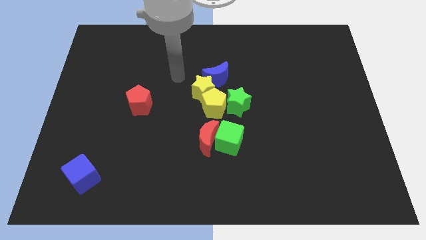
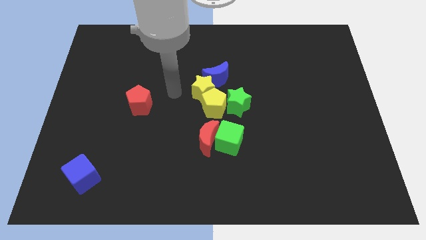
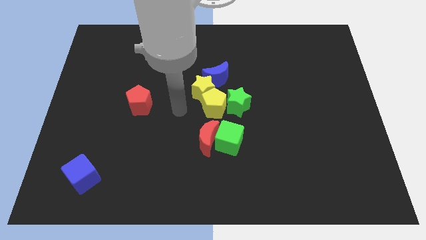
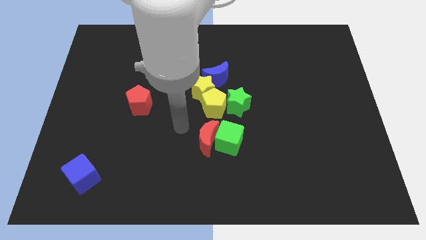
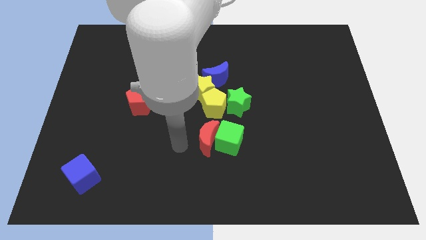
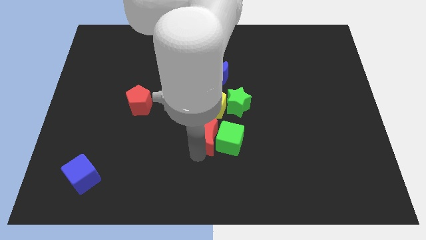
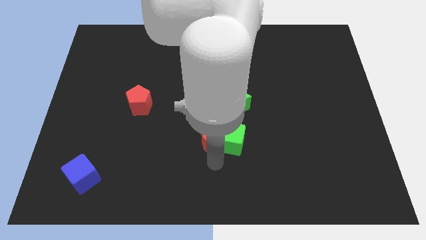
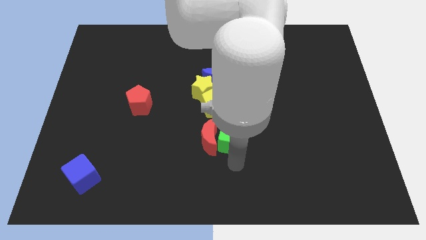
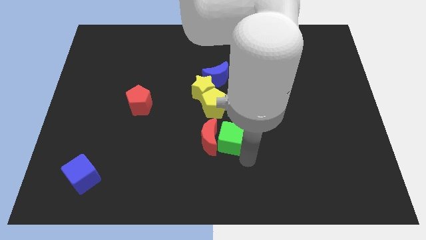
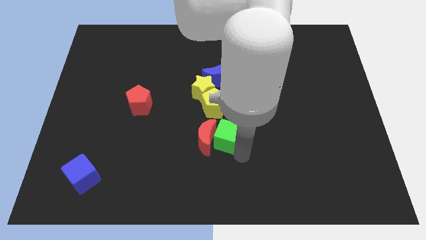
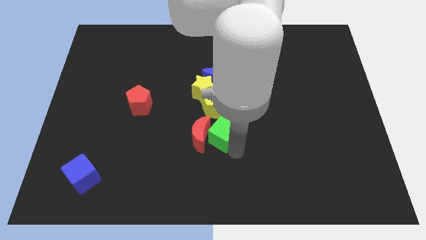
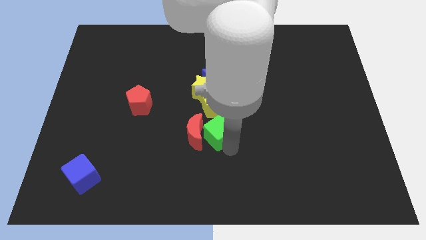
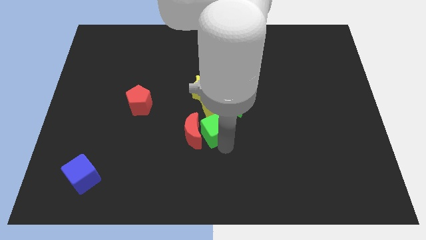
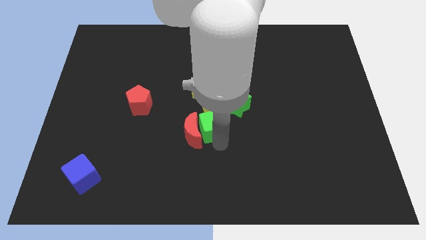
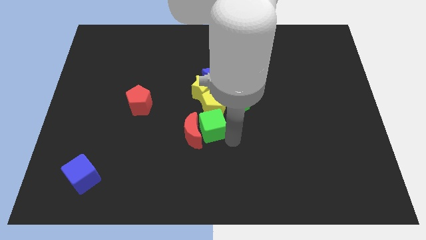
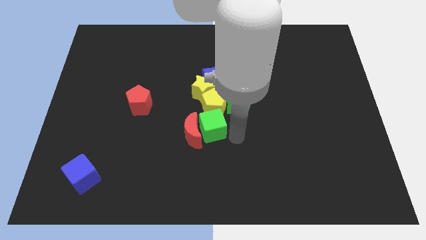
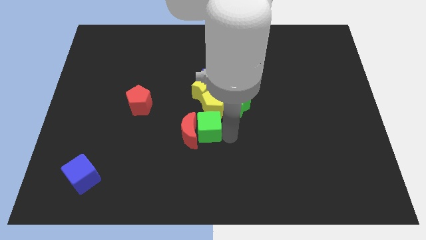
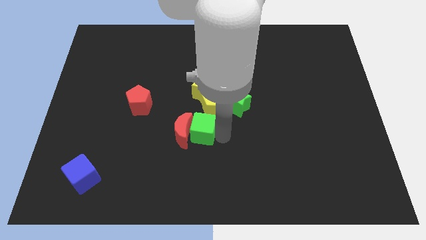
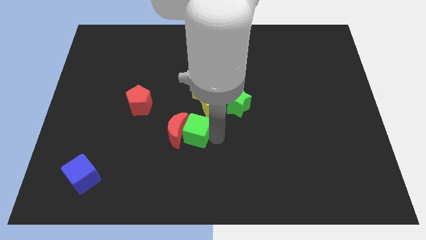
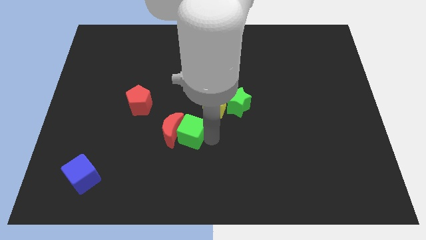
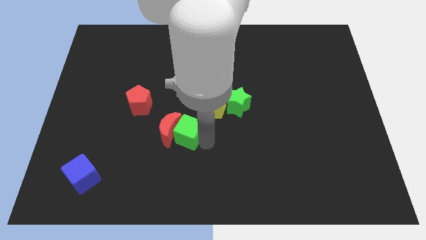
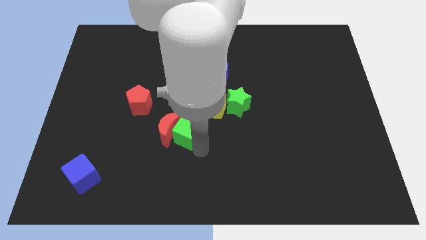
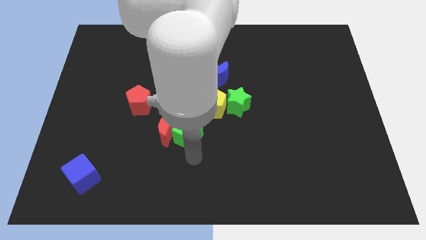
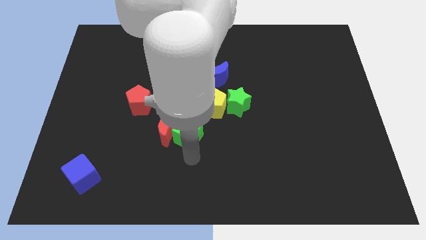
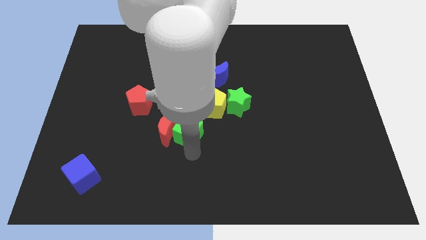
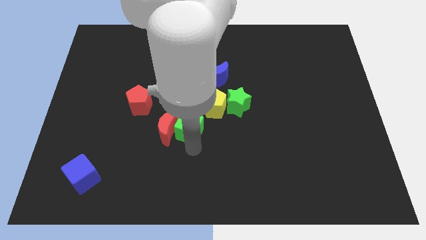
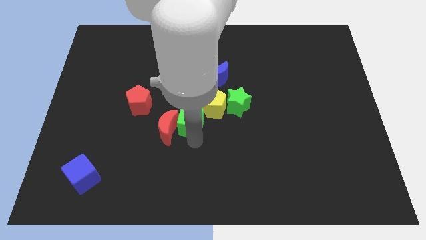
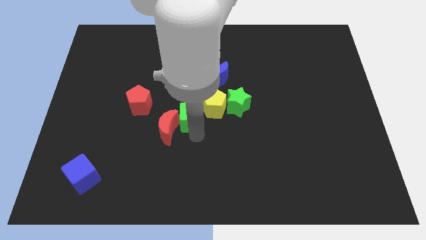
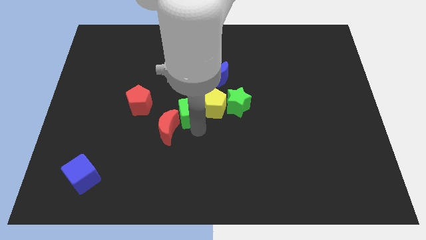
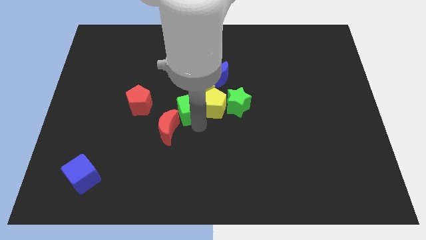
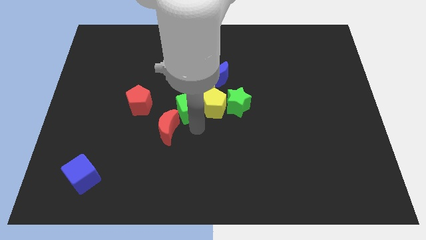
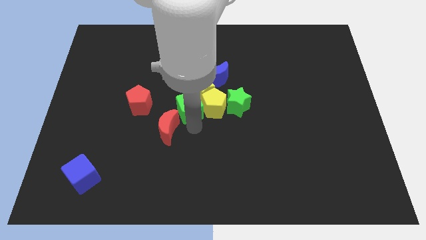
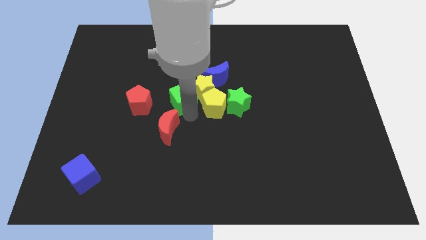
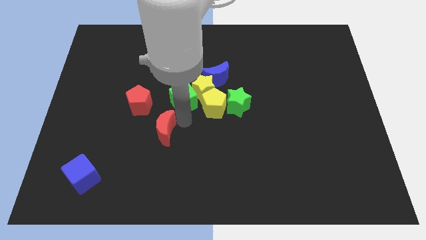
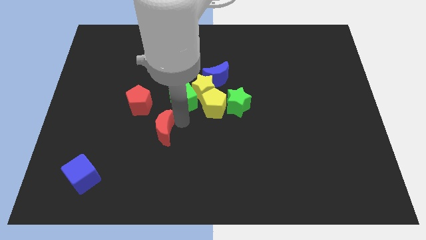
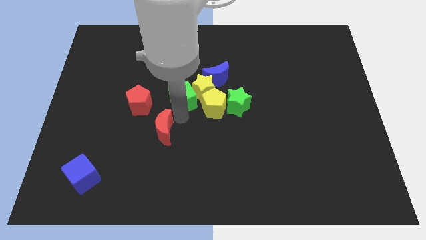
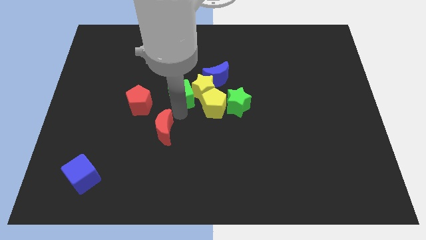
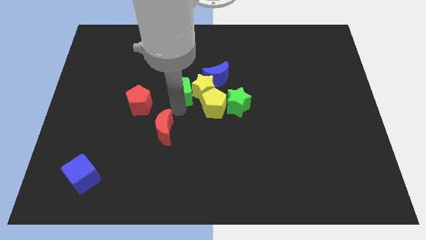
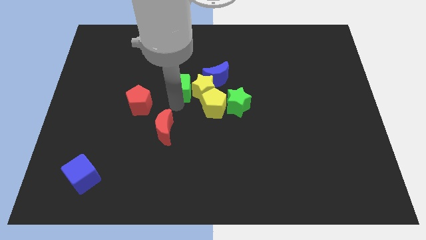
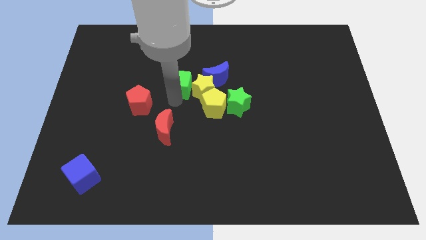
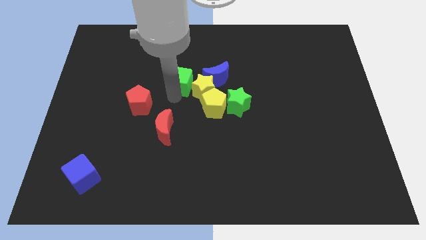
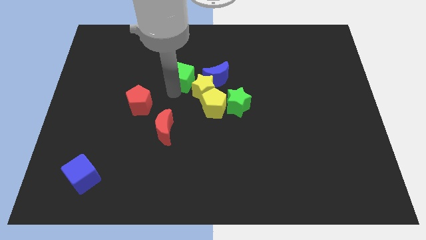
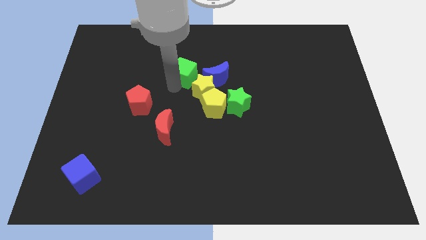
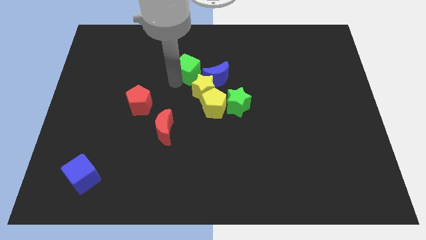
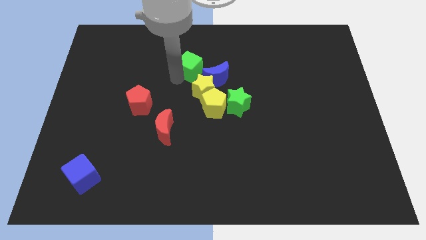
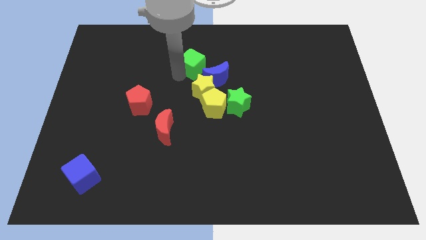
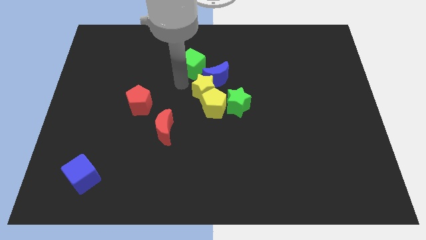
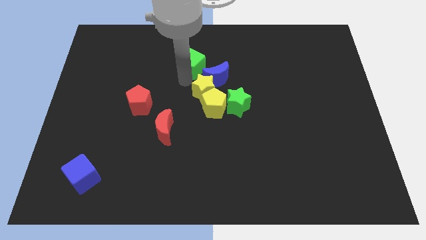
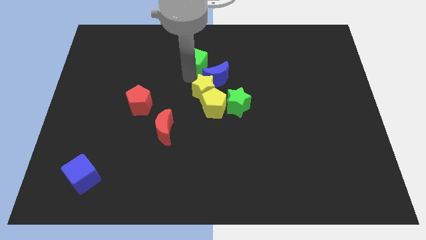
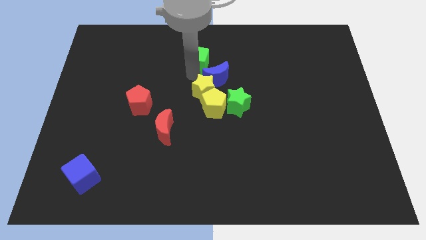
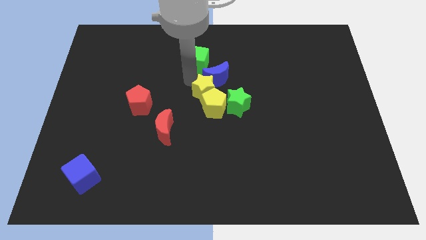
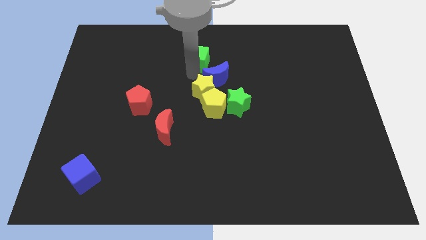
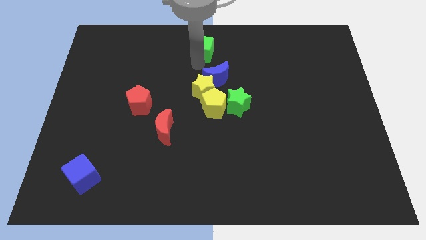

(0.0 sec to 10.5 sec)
push the green cube to the towards your base

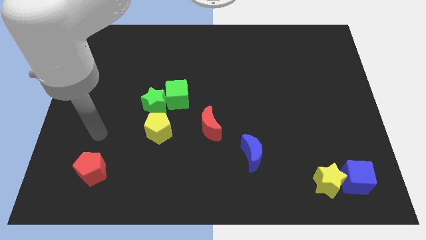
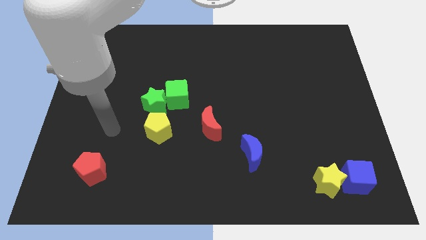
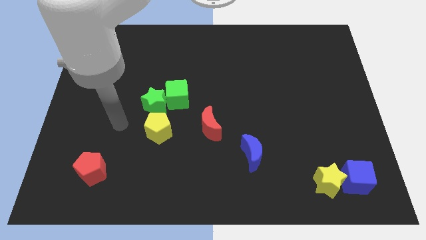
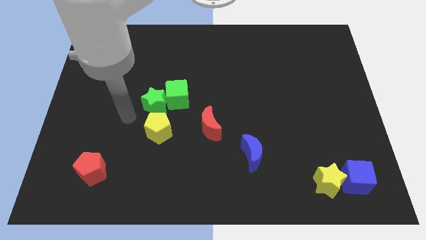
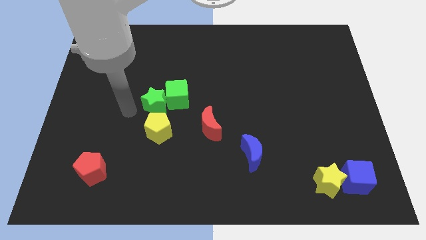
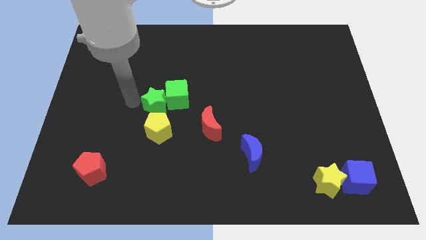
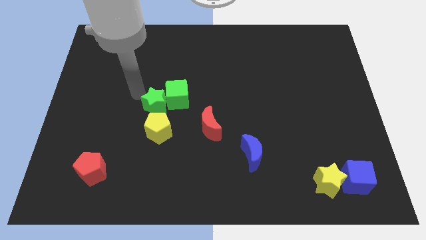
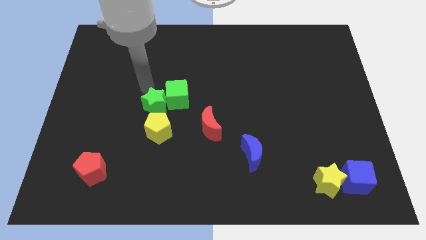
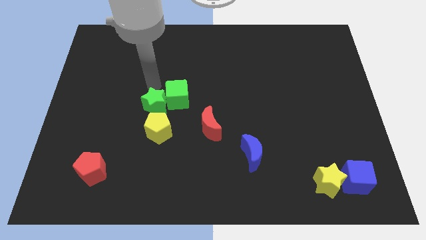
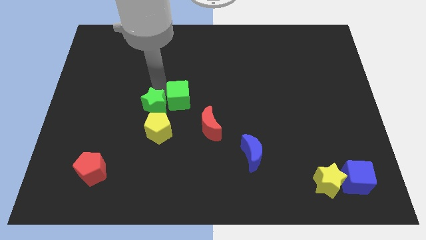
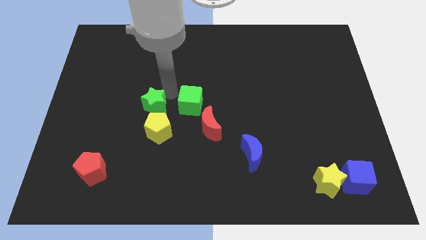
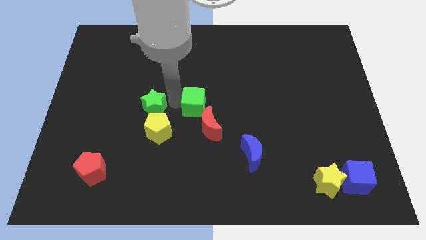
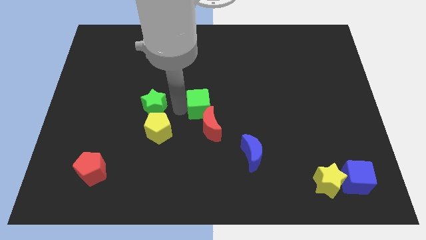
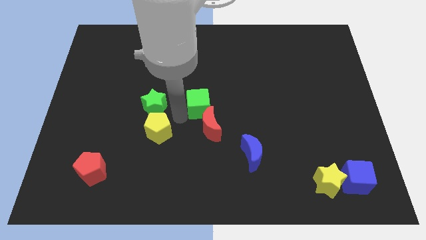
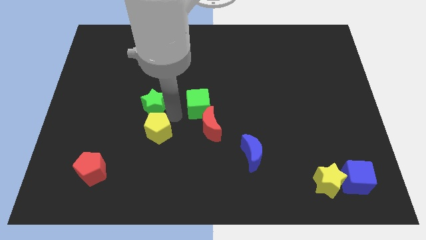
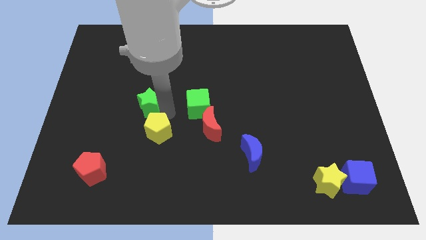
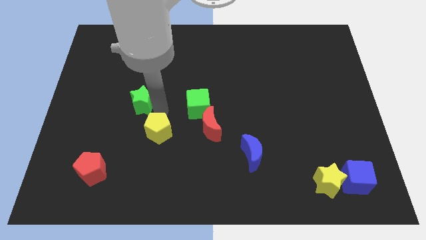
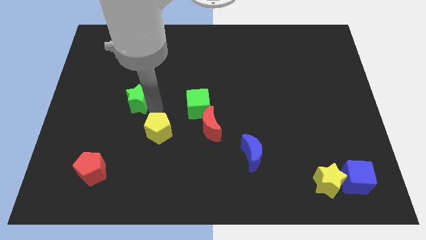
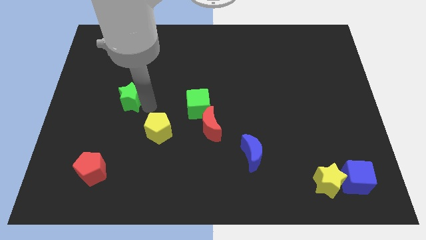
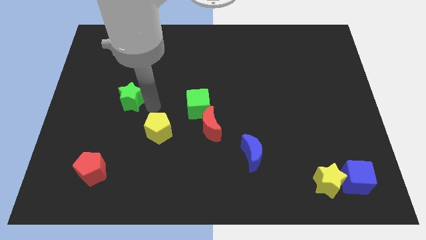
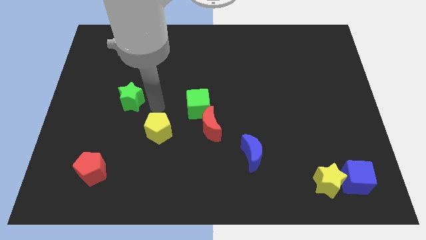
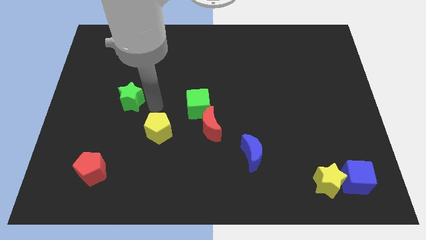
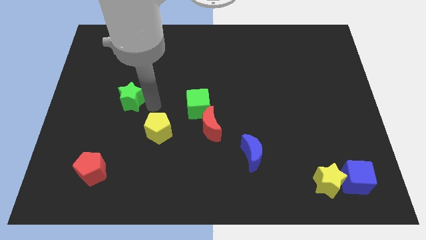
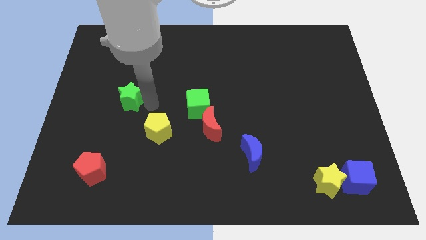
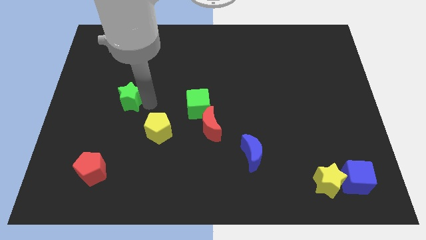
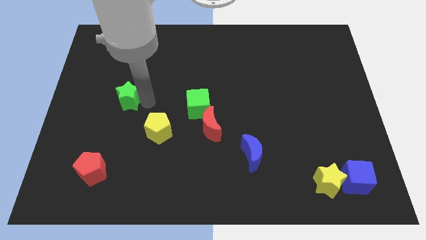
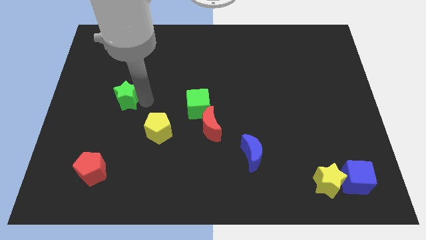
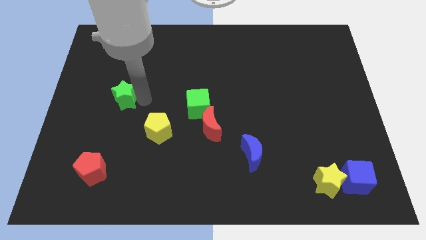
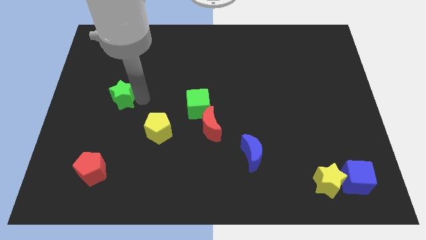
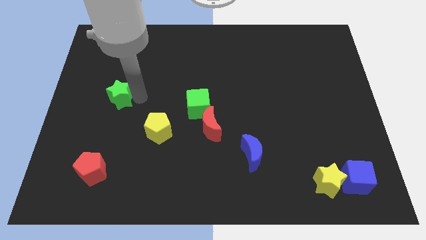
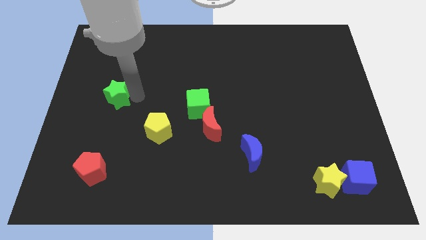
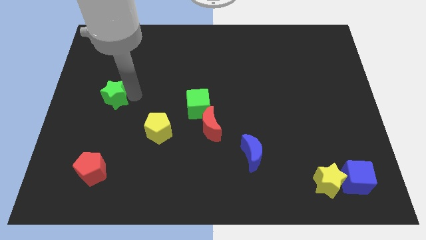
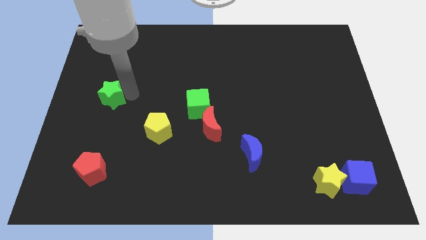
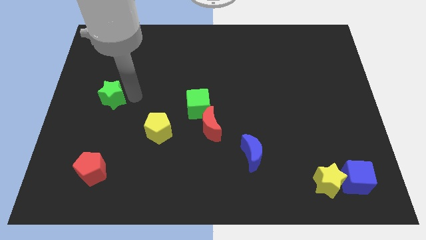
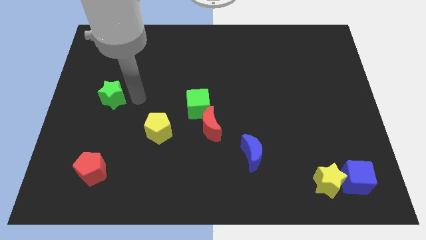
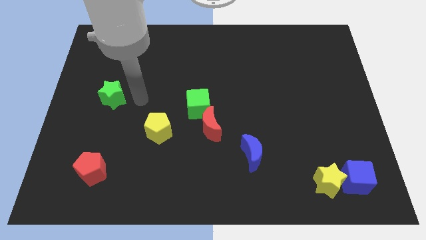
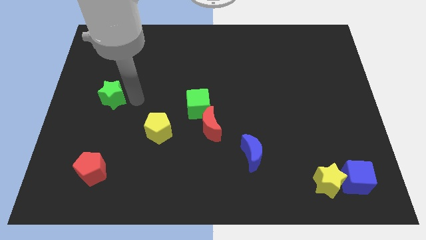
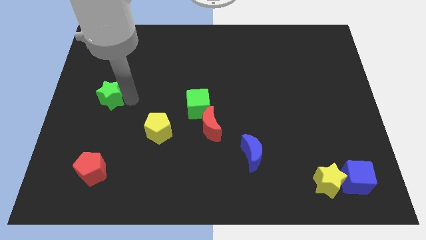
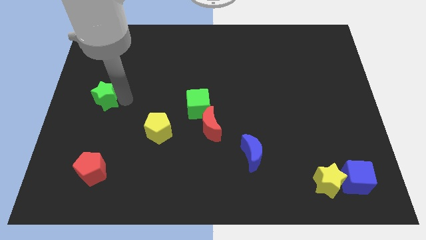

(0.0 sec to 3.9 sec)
move the green star to the center left
